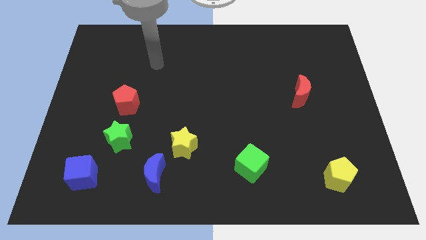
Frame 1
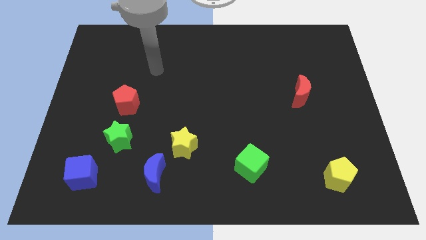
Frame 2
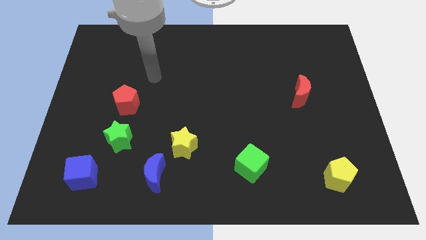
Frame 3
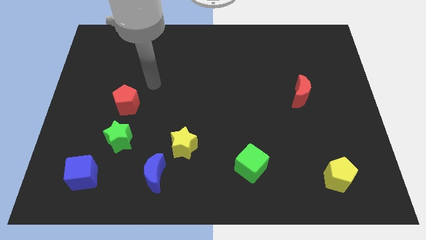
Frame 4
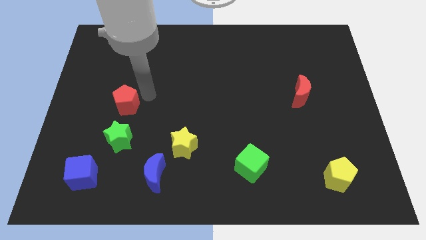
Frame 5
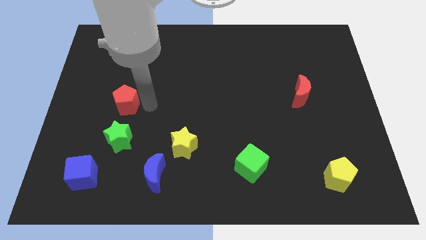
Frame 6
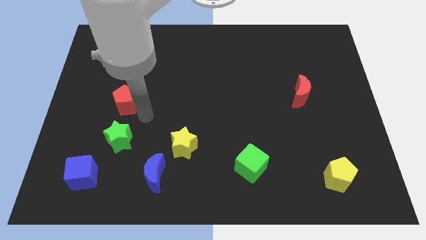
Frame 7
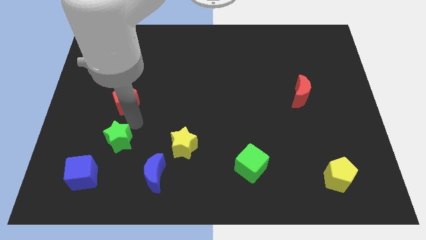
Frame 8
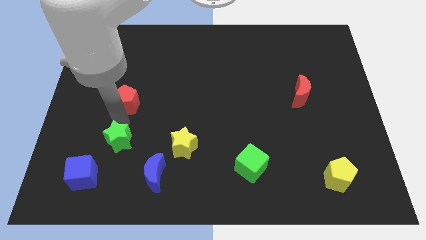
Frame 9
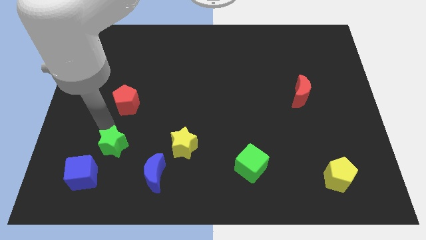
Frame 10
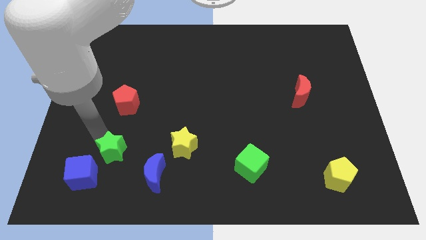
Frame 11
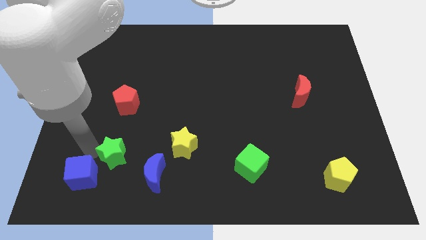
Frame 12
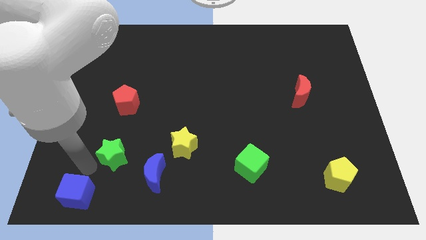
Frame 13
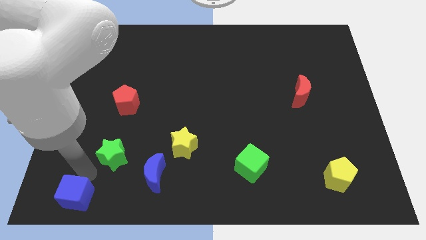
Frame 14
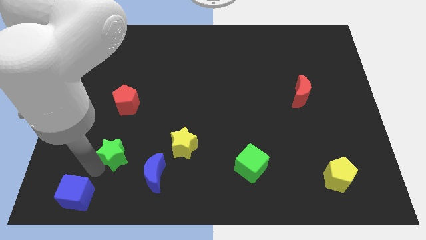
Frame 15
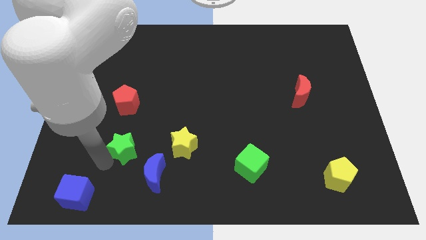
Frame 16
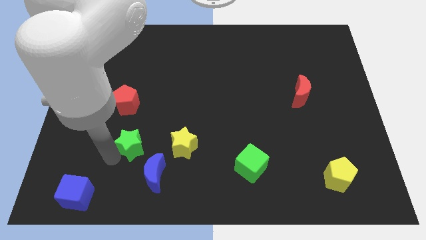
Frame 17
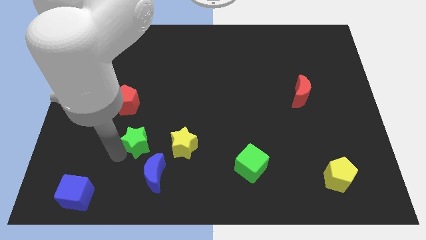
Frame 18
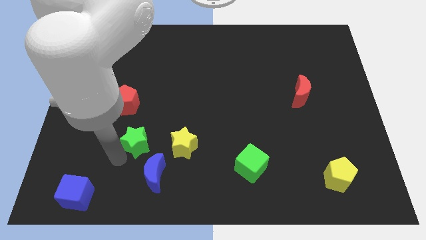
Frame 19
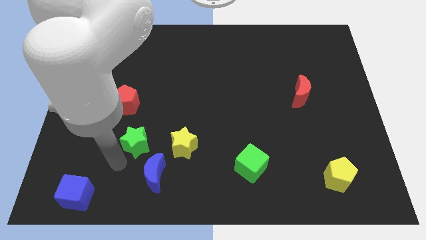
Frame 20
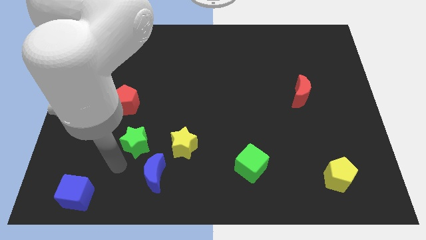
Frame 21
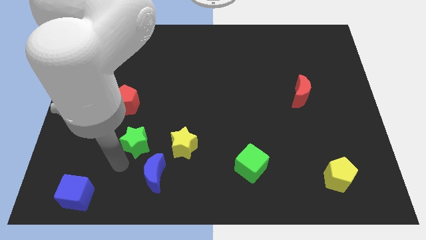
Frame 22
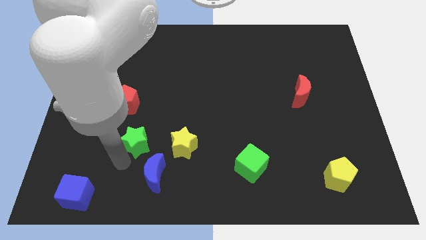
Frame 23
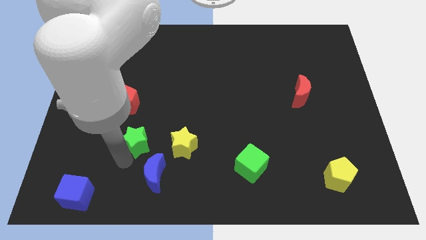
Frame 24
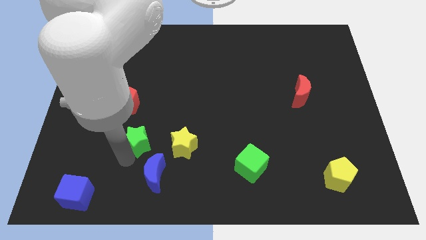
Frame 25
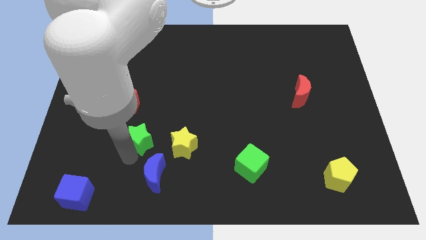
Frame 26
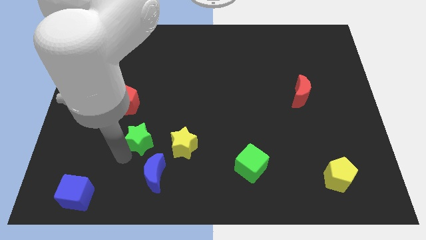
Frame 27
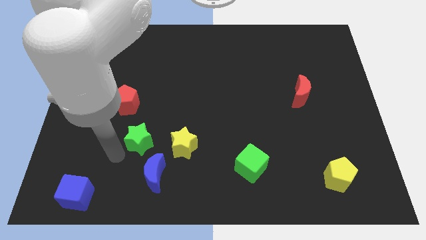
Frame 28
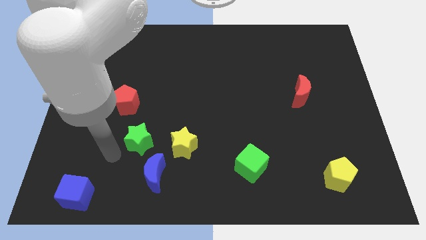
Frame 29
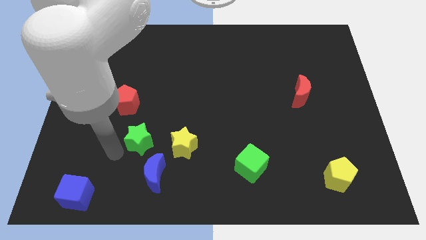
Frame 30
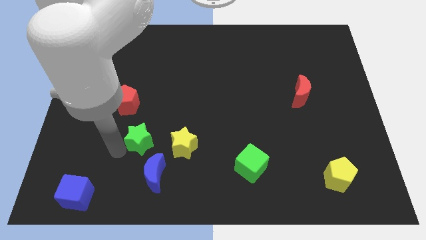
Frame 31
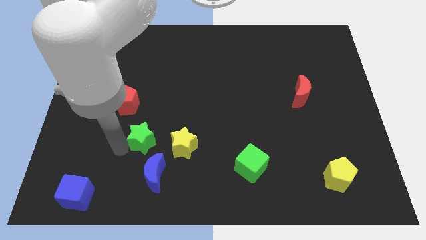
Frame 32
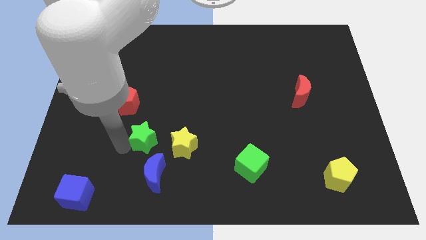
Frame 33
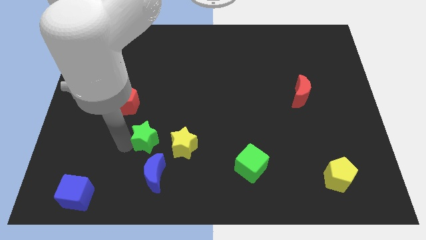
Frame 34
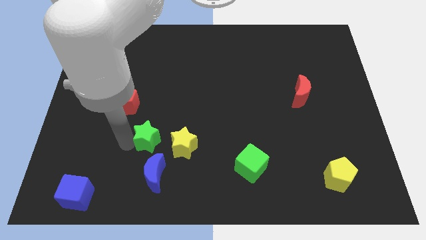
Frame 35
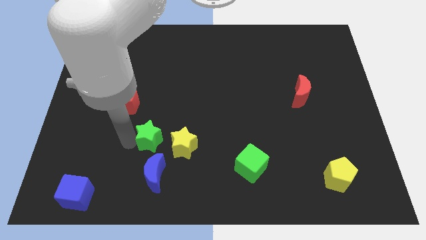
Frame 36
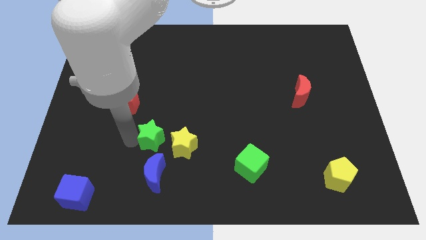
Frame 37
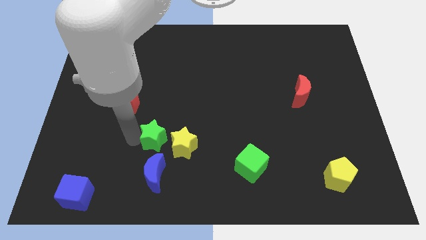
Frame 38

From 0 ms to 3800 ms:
move the green star right a little bit

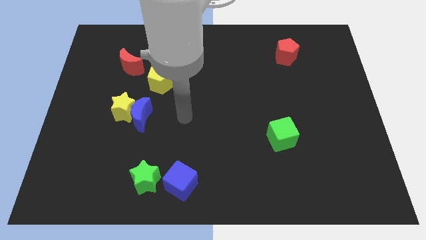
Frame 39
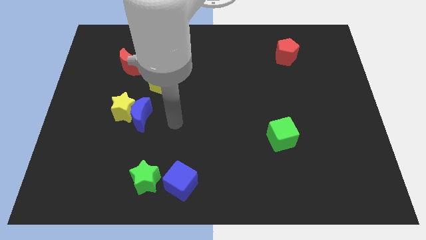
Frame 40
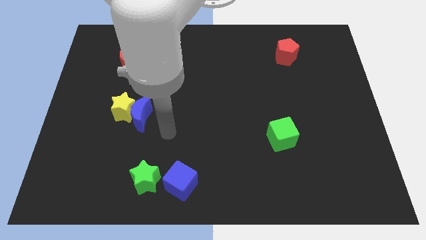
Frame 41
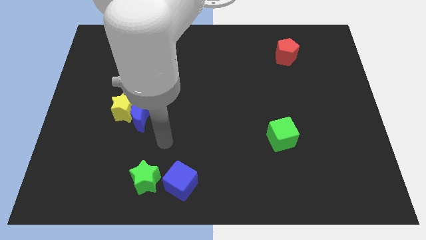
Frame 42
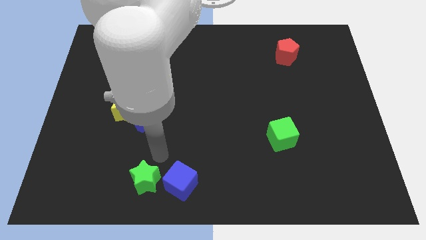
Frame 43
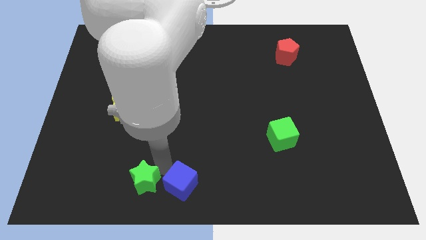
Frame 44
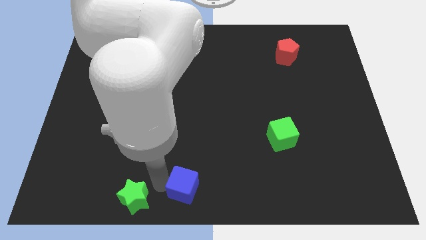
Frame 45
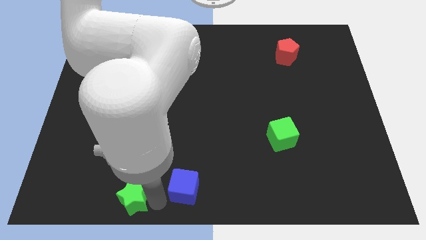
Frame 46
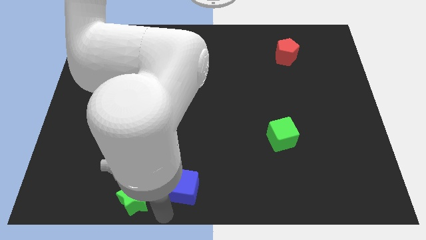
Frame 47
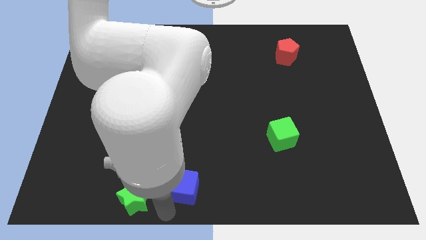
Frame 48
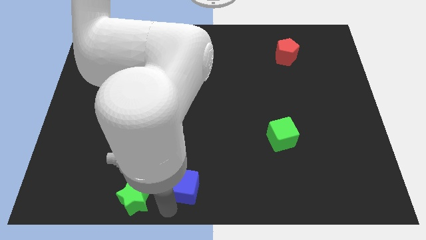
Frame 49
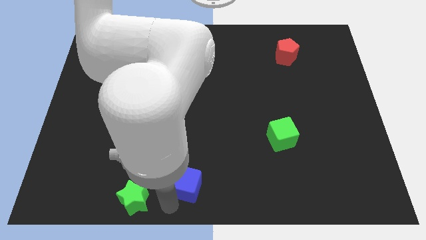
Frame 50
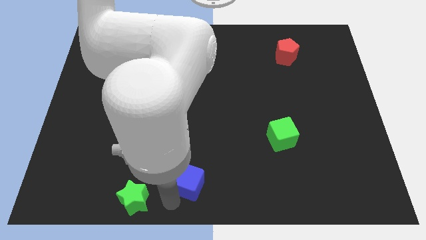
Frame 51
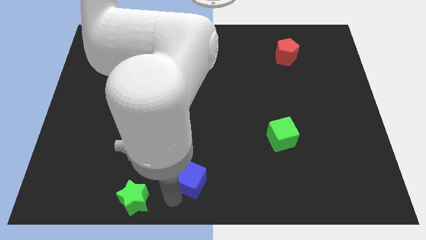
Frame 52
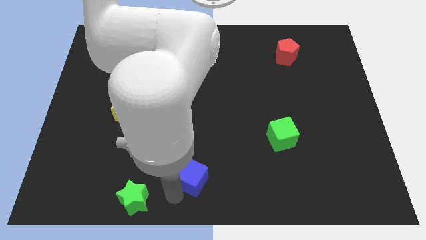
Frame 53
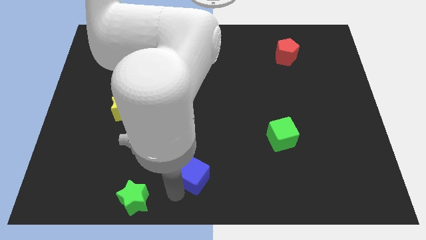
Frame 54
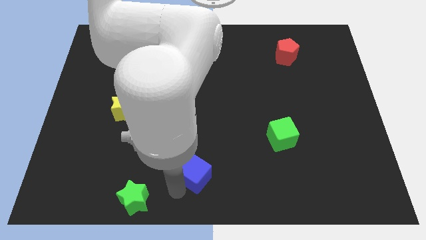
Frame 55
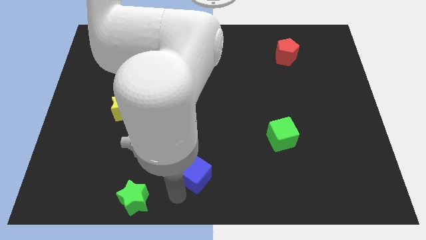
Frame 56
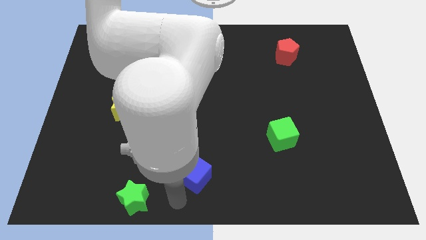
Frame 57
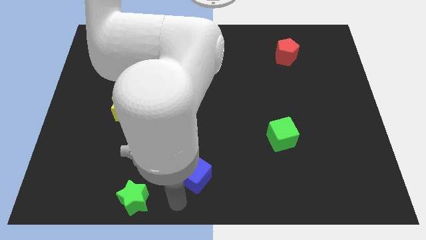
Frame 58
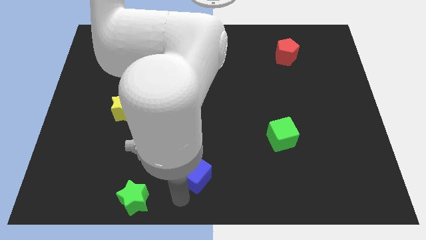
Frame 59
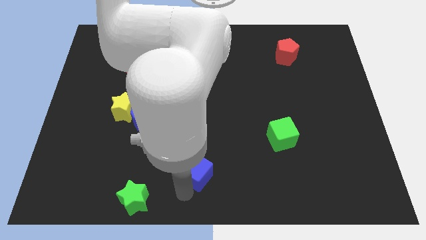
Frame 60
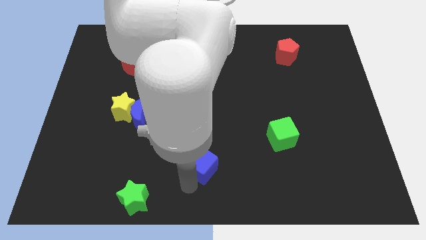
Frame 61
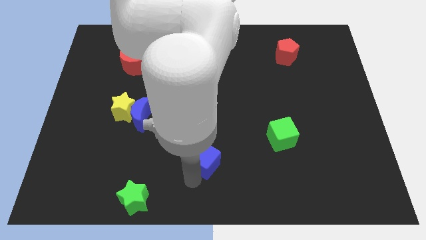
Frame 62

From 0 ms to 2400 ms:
slightly move the blue cube diagonally up and right

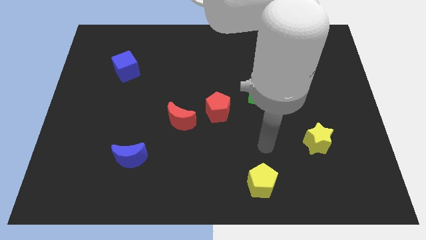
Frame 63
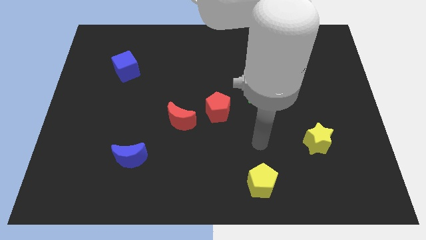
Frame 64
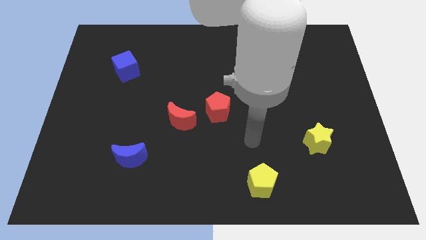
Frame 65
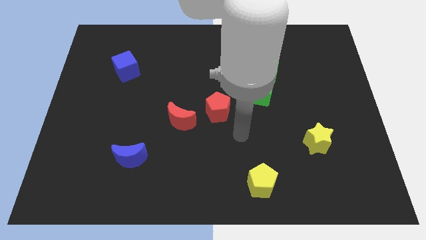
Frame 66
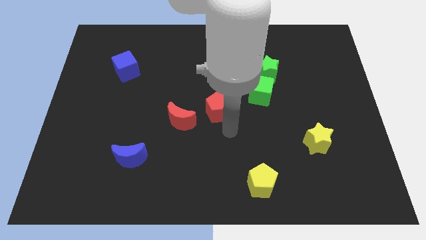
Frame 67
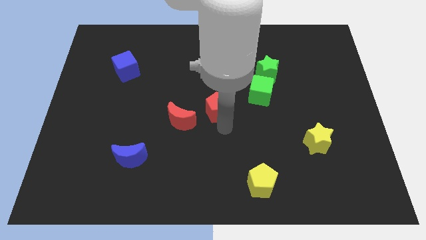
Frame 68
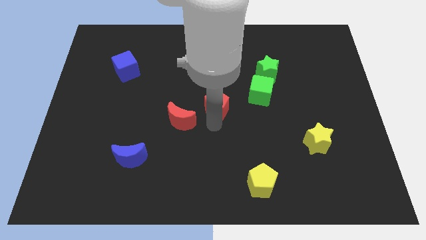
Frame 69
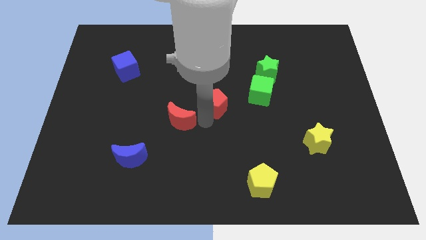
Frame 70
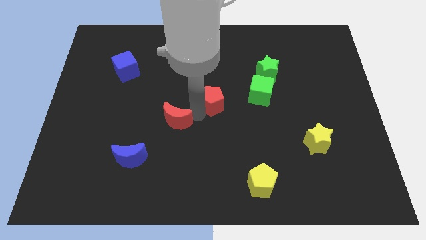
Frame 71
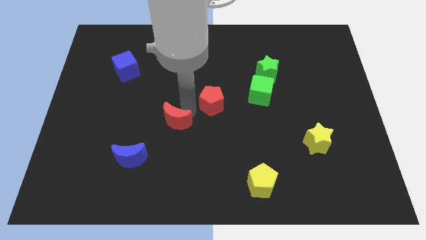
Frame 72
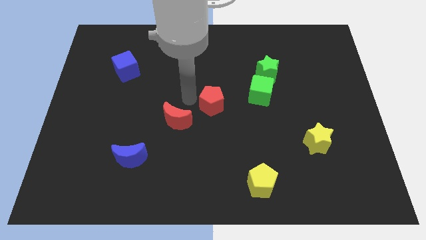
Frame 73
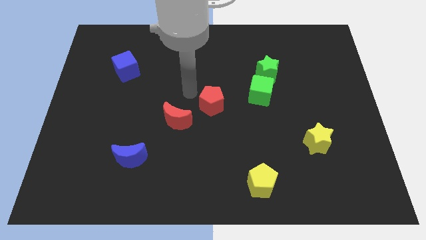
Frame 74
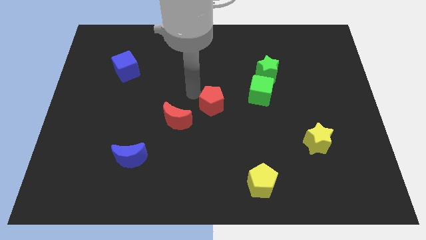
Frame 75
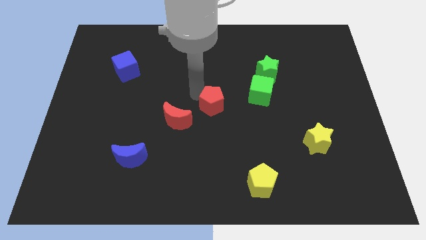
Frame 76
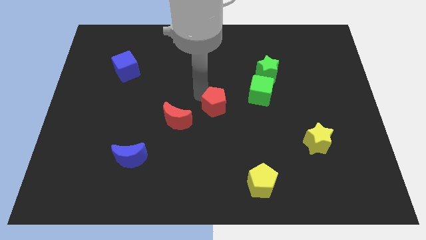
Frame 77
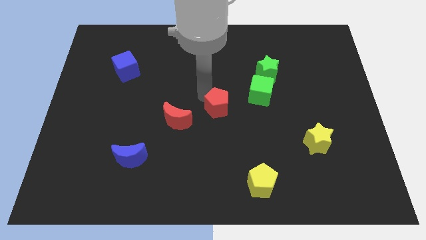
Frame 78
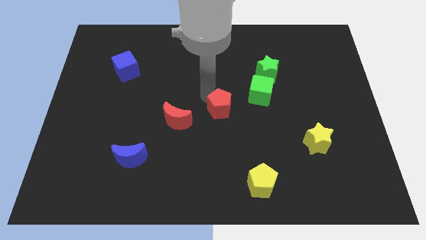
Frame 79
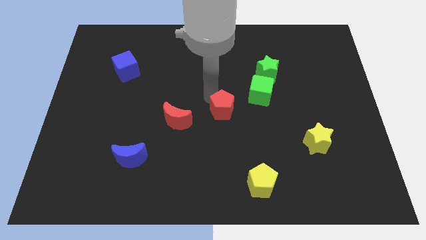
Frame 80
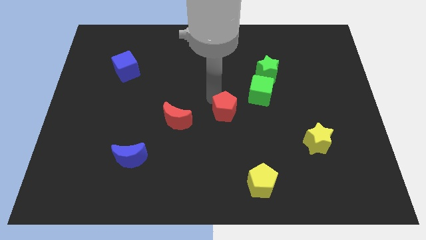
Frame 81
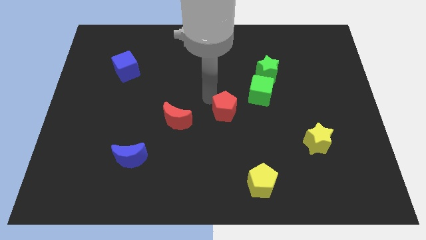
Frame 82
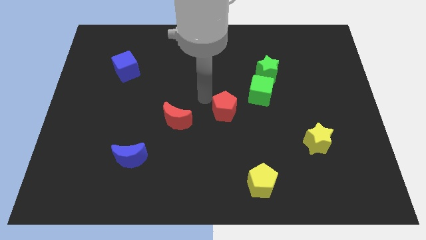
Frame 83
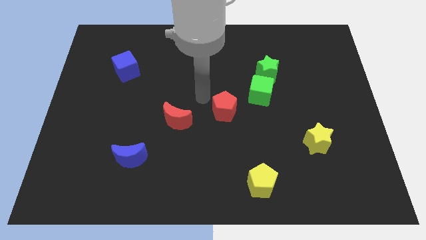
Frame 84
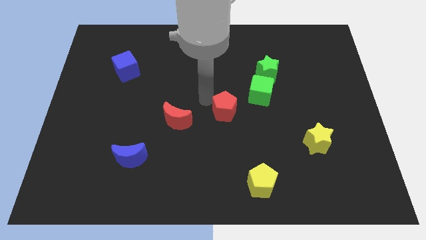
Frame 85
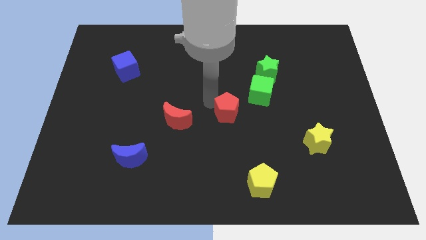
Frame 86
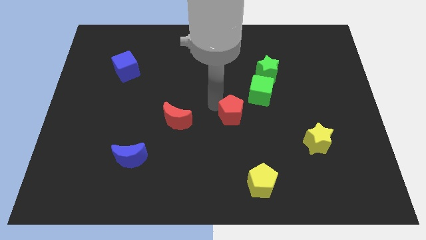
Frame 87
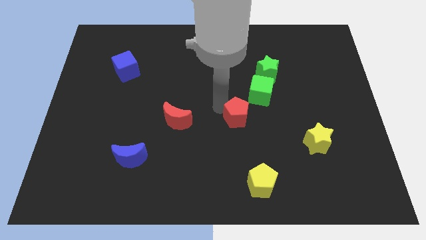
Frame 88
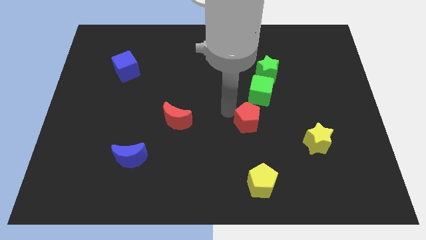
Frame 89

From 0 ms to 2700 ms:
push the red pentagon a little bit downwards and then right
